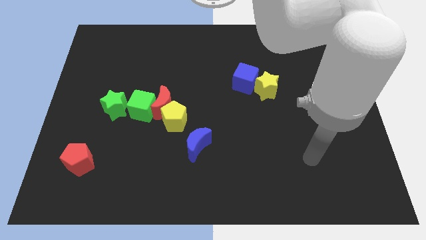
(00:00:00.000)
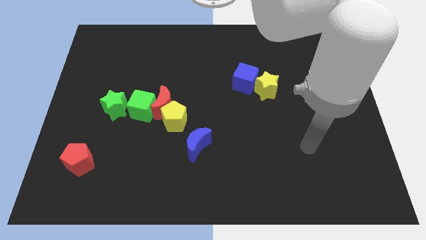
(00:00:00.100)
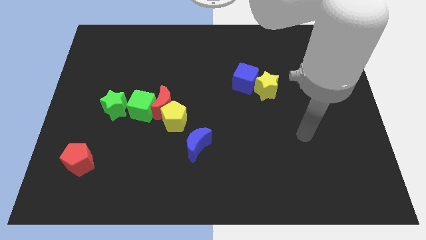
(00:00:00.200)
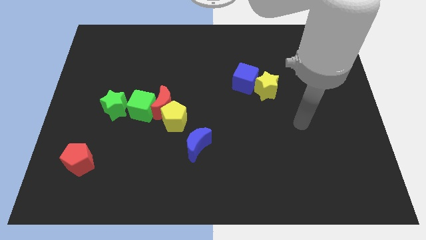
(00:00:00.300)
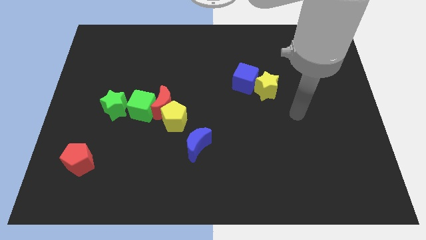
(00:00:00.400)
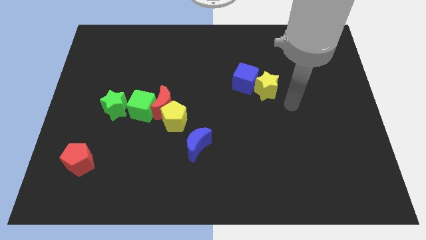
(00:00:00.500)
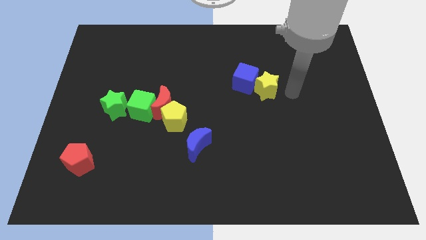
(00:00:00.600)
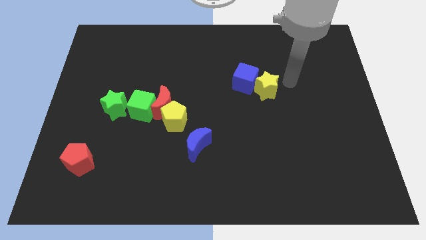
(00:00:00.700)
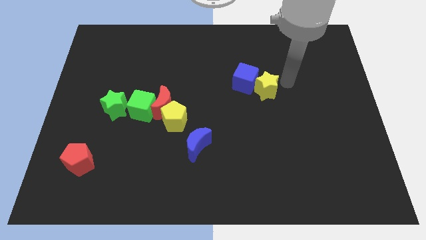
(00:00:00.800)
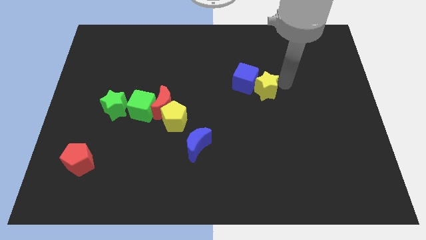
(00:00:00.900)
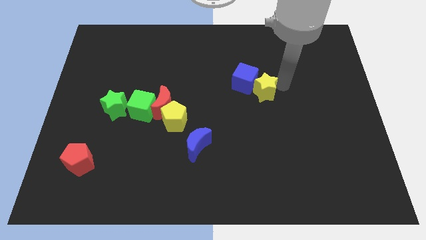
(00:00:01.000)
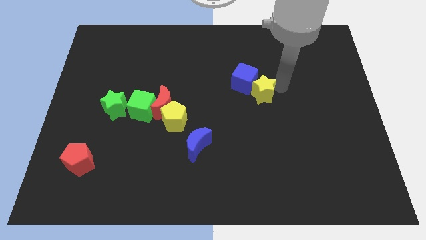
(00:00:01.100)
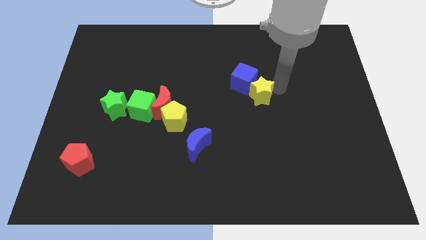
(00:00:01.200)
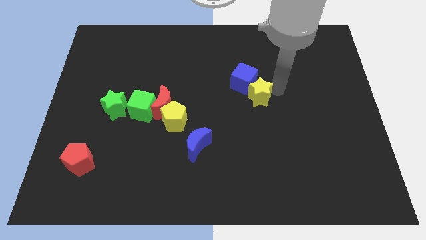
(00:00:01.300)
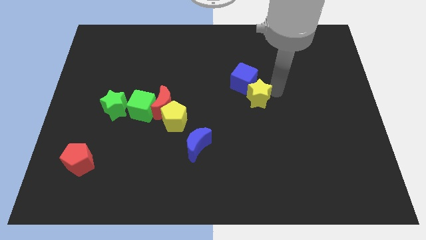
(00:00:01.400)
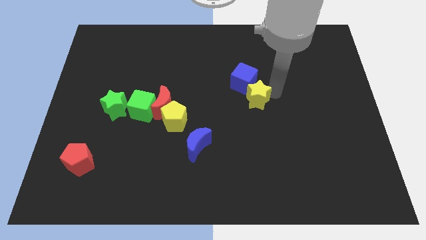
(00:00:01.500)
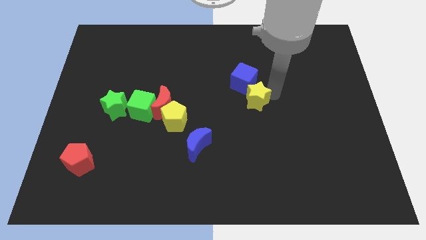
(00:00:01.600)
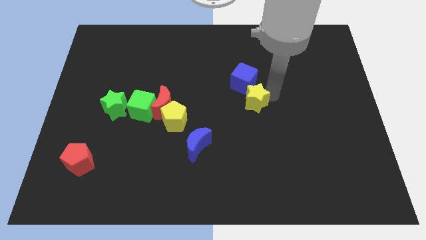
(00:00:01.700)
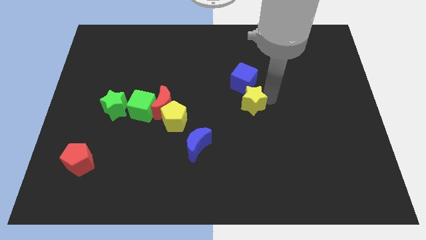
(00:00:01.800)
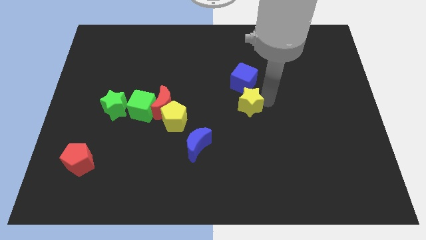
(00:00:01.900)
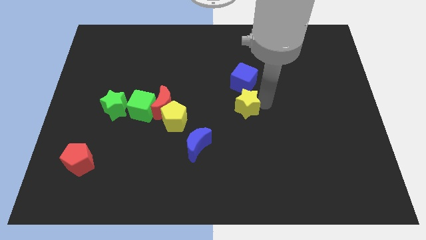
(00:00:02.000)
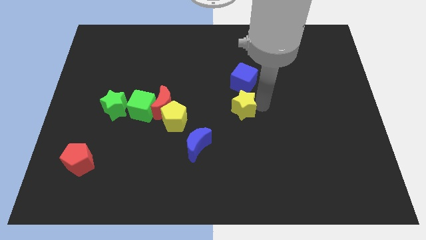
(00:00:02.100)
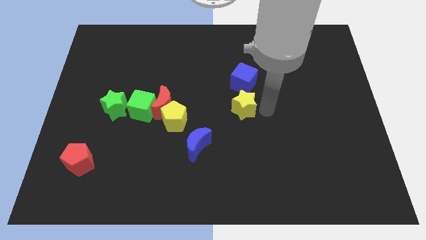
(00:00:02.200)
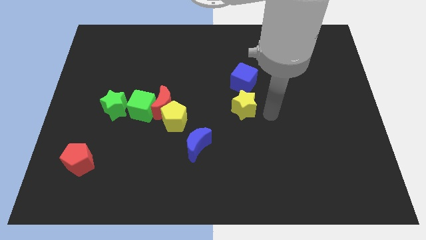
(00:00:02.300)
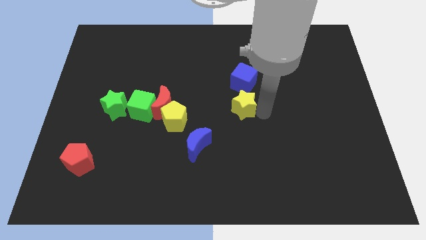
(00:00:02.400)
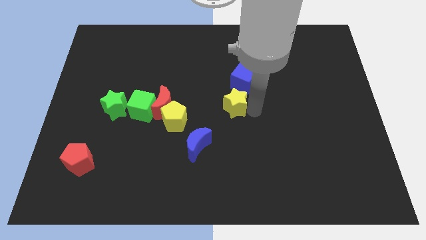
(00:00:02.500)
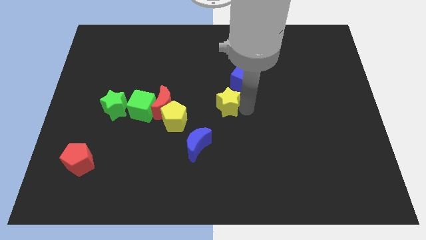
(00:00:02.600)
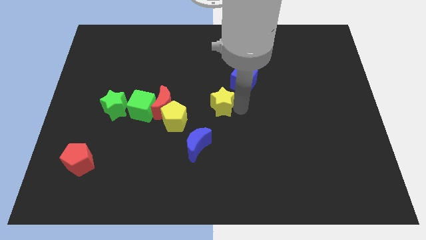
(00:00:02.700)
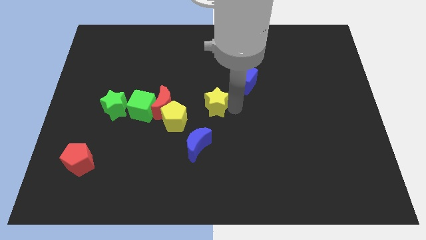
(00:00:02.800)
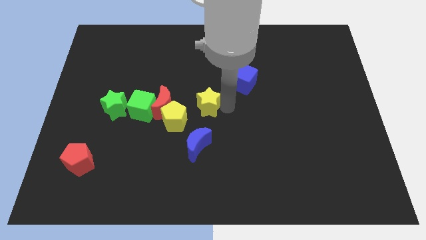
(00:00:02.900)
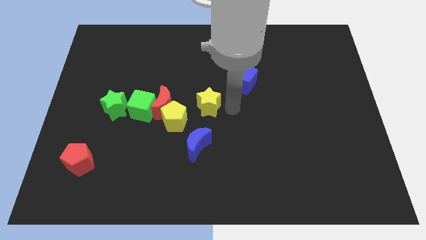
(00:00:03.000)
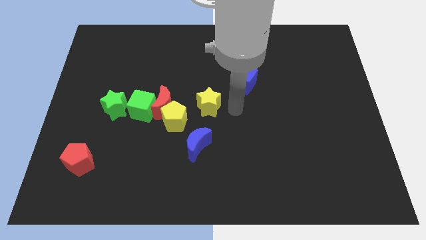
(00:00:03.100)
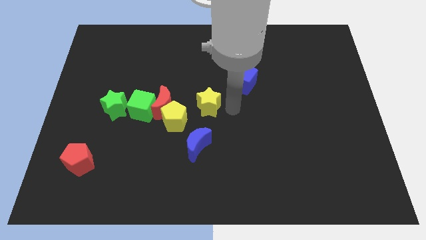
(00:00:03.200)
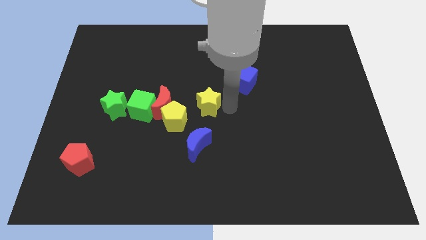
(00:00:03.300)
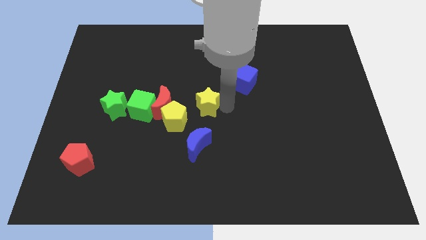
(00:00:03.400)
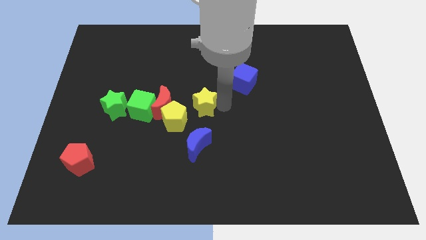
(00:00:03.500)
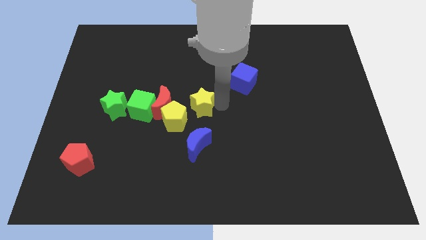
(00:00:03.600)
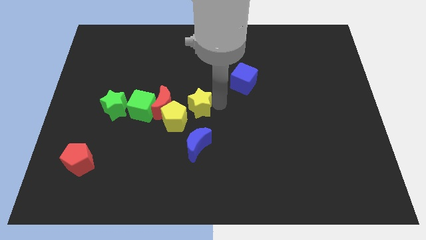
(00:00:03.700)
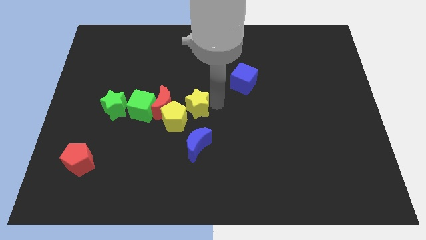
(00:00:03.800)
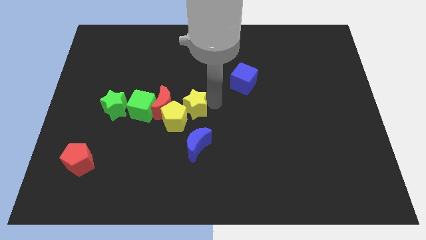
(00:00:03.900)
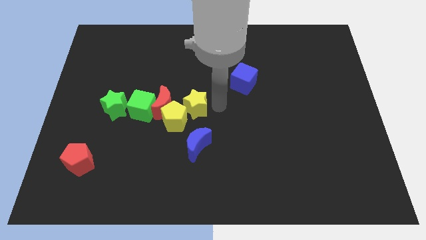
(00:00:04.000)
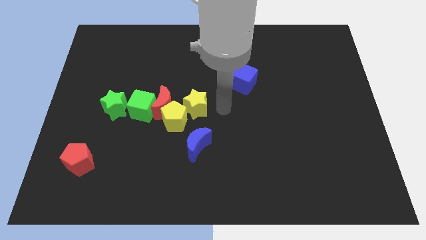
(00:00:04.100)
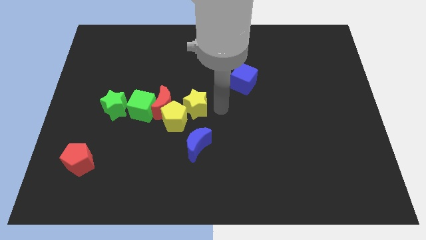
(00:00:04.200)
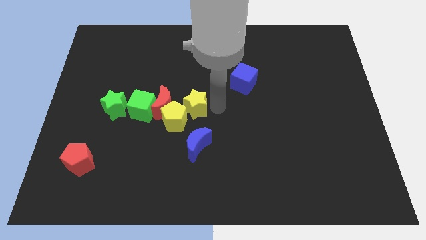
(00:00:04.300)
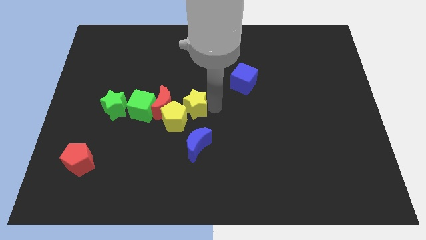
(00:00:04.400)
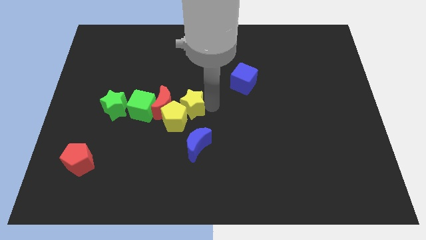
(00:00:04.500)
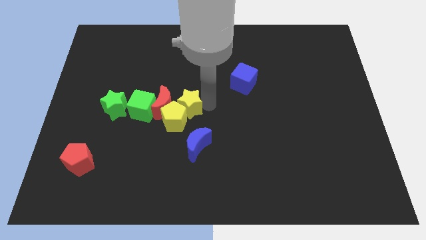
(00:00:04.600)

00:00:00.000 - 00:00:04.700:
slide the yellow star to the red moon

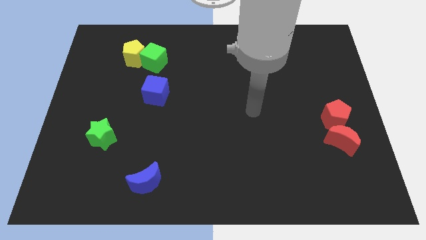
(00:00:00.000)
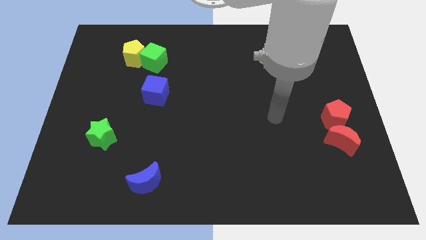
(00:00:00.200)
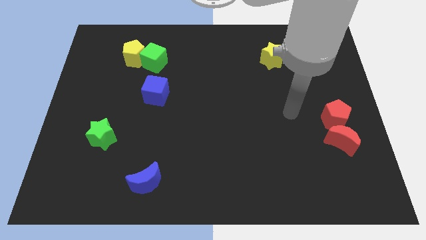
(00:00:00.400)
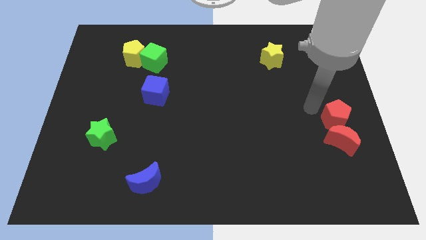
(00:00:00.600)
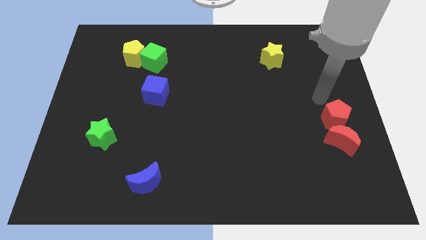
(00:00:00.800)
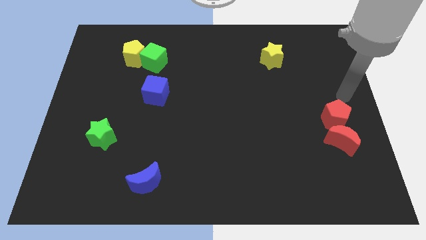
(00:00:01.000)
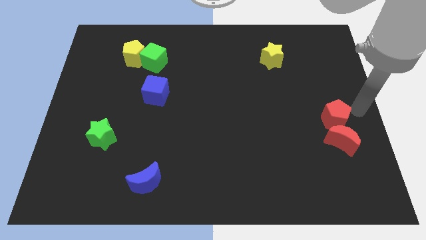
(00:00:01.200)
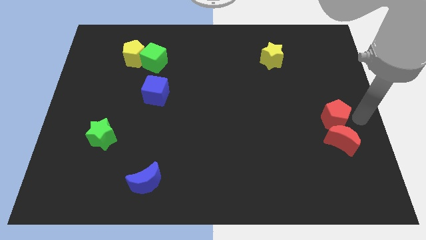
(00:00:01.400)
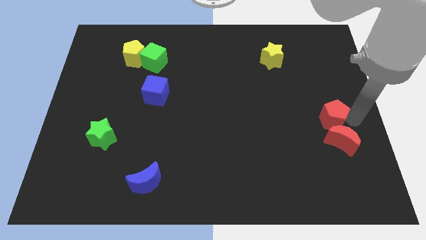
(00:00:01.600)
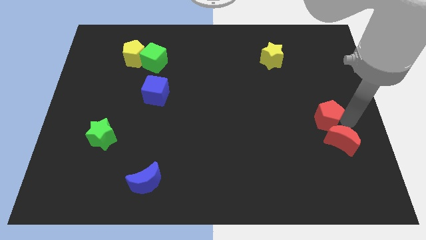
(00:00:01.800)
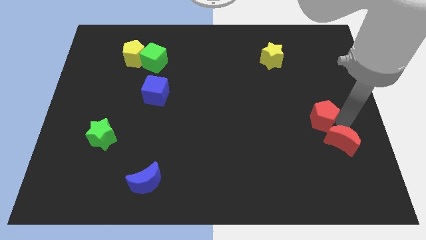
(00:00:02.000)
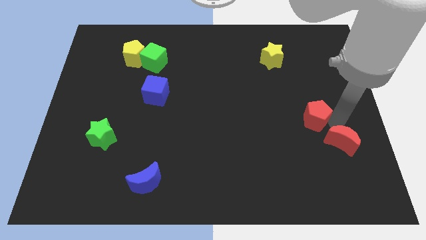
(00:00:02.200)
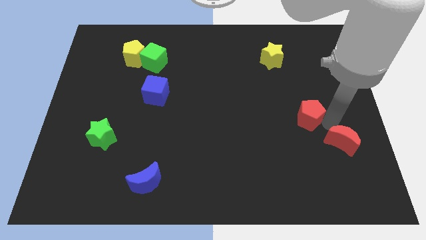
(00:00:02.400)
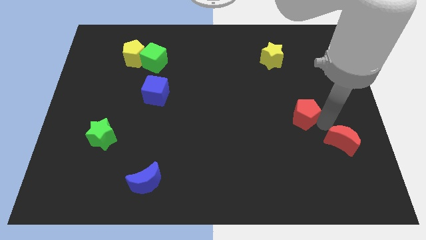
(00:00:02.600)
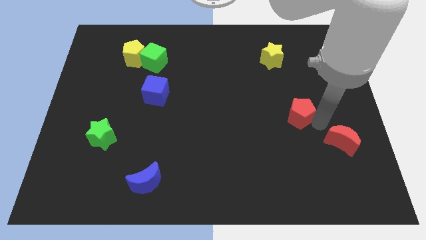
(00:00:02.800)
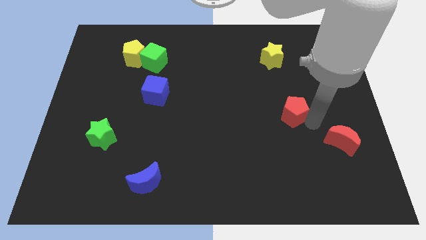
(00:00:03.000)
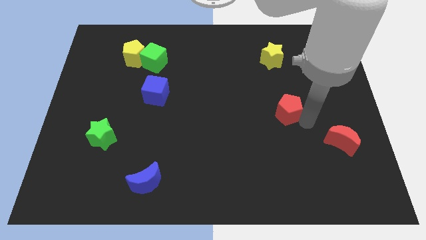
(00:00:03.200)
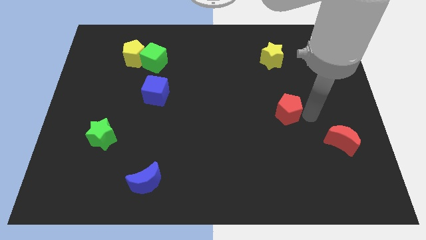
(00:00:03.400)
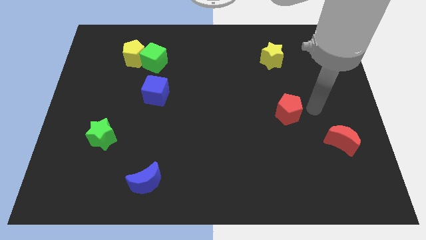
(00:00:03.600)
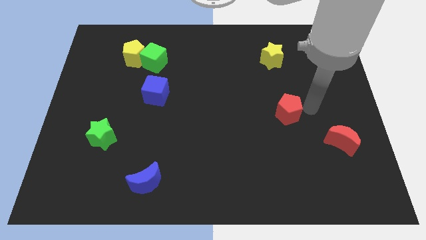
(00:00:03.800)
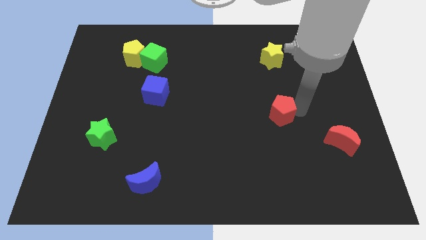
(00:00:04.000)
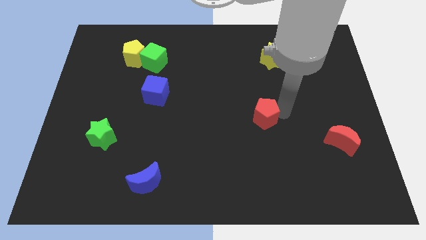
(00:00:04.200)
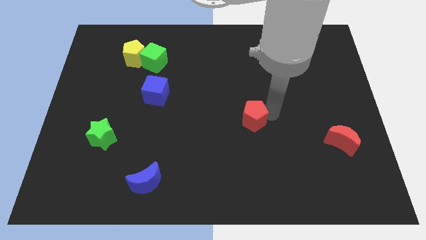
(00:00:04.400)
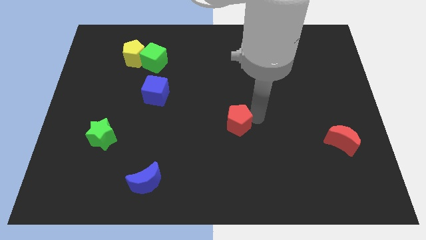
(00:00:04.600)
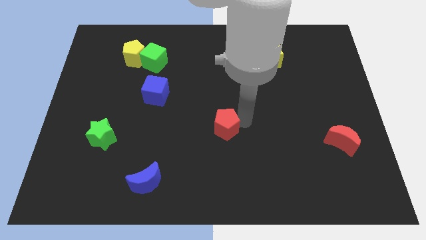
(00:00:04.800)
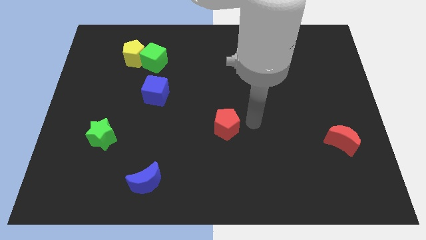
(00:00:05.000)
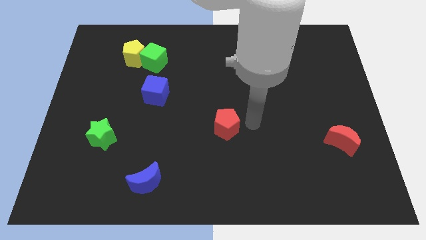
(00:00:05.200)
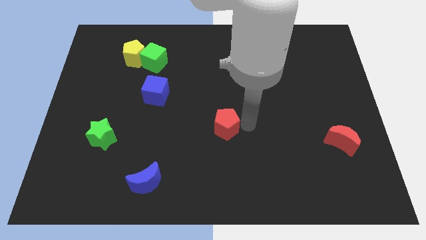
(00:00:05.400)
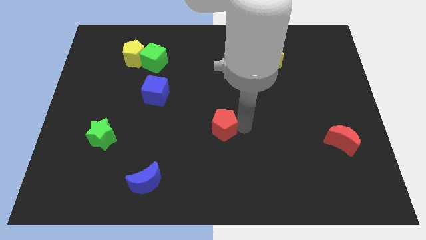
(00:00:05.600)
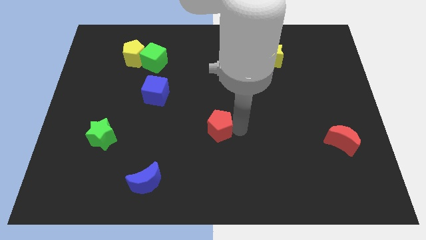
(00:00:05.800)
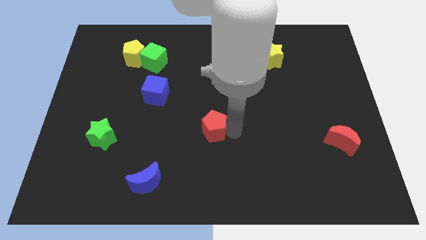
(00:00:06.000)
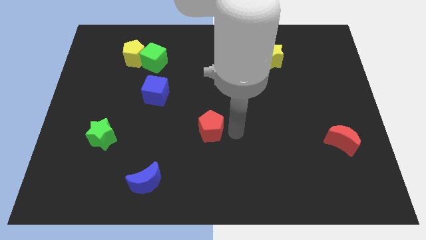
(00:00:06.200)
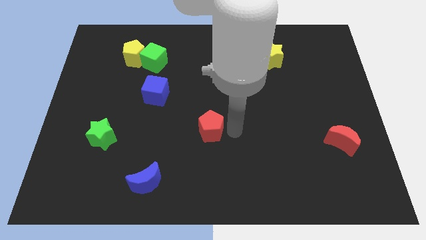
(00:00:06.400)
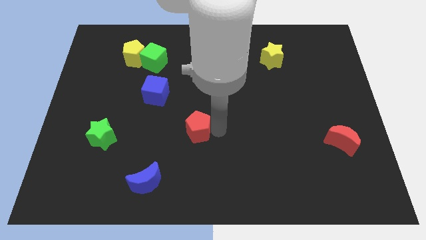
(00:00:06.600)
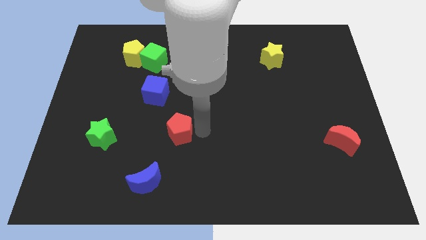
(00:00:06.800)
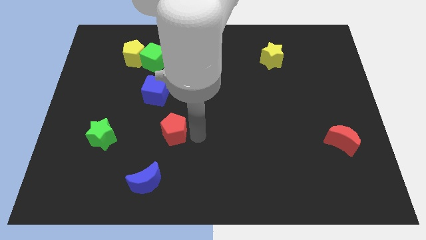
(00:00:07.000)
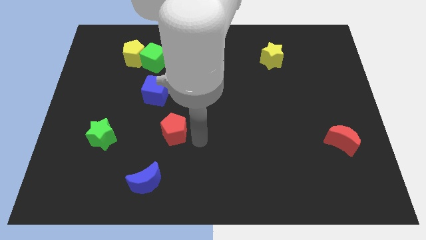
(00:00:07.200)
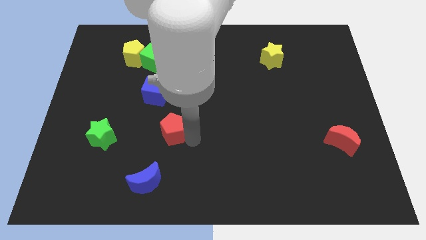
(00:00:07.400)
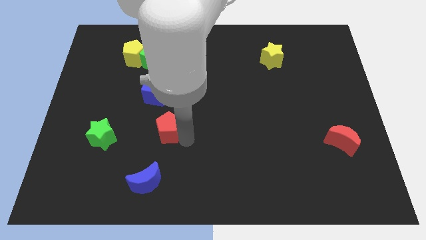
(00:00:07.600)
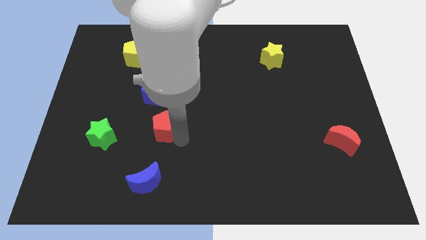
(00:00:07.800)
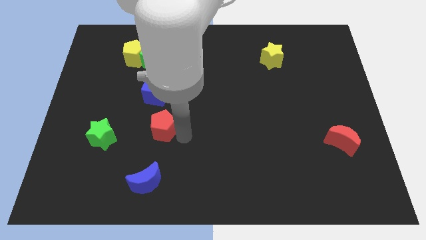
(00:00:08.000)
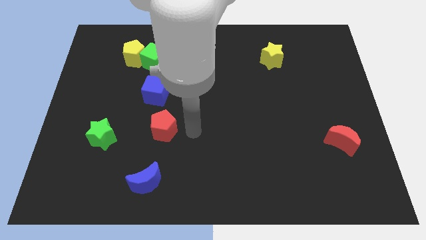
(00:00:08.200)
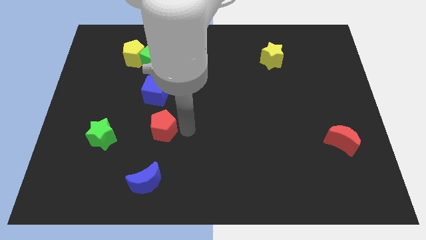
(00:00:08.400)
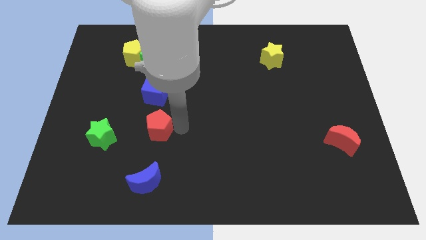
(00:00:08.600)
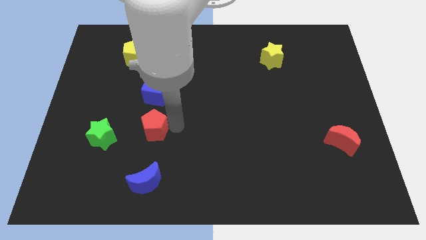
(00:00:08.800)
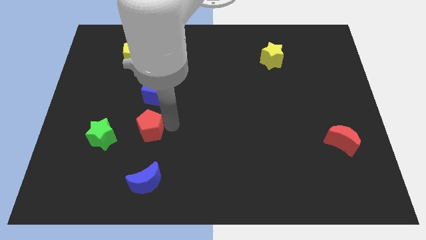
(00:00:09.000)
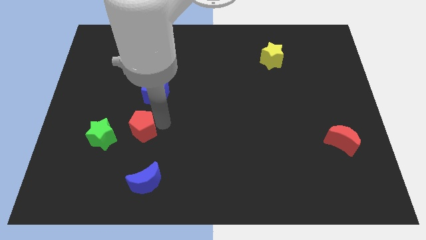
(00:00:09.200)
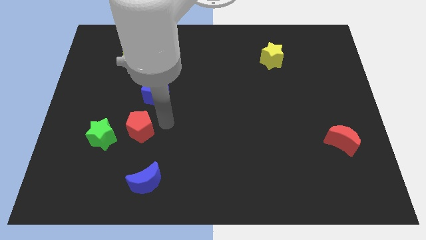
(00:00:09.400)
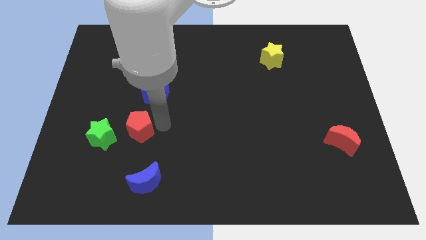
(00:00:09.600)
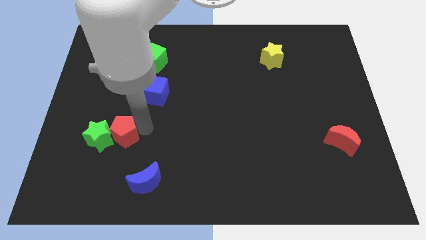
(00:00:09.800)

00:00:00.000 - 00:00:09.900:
put the red pentagon next to the green star
